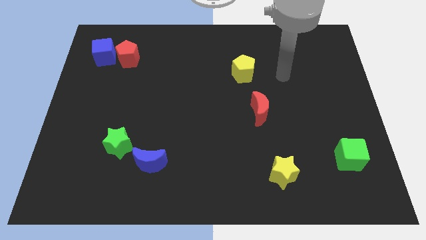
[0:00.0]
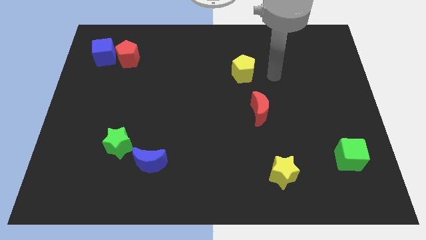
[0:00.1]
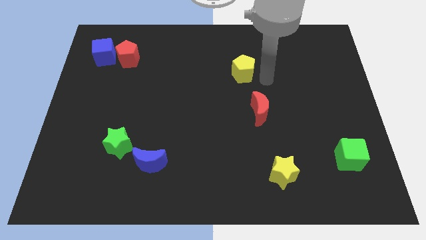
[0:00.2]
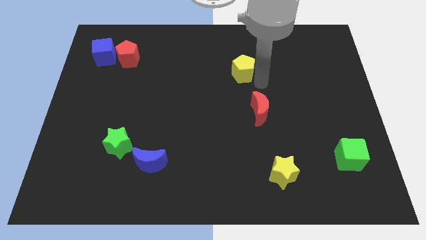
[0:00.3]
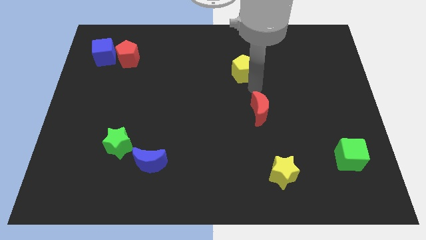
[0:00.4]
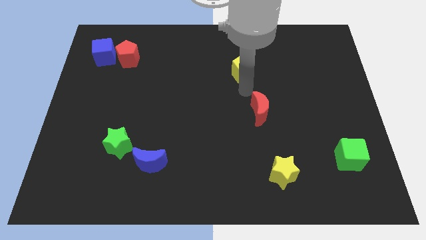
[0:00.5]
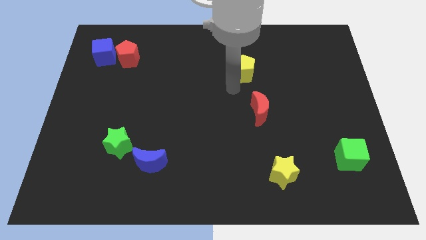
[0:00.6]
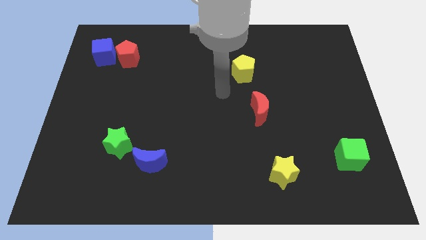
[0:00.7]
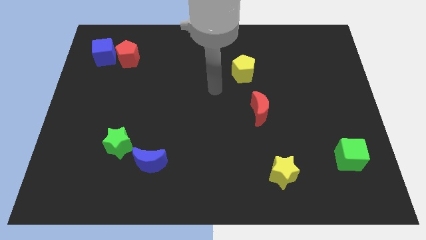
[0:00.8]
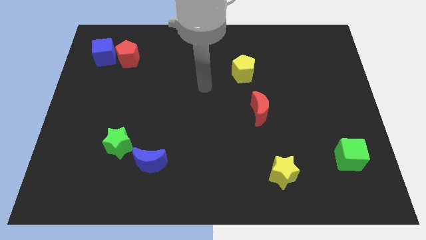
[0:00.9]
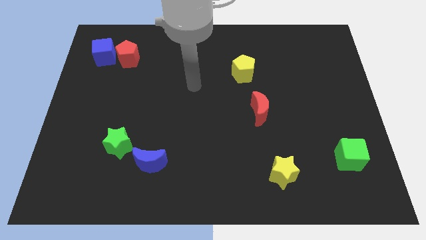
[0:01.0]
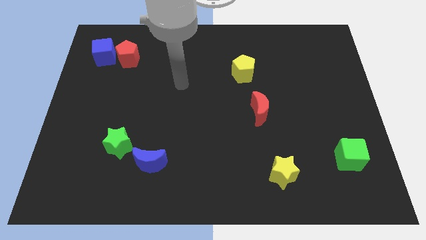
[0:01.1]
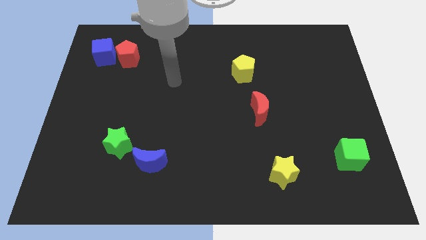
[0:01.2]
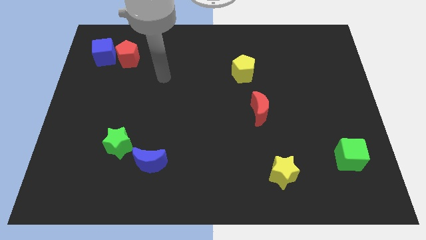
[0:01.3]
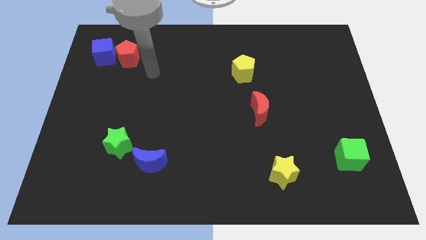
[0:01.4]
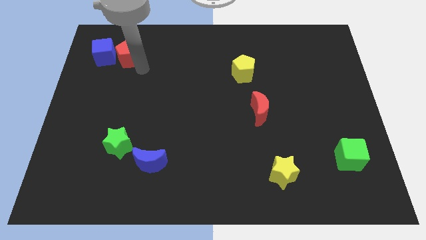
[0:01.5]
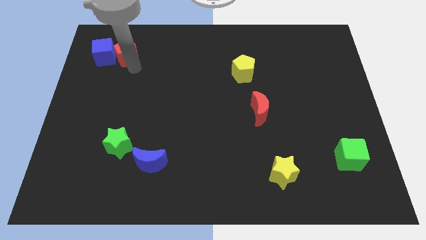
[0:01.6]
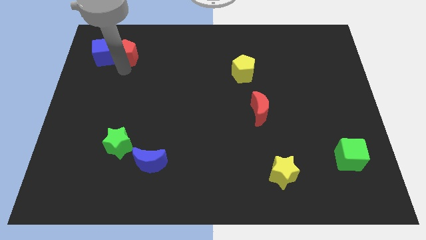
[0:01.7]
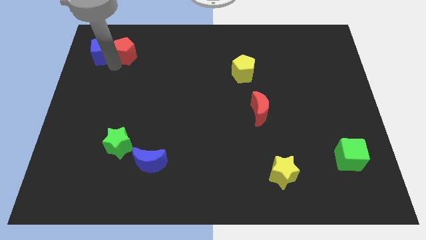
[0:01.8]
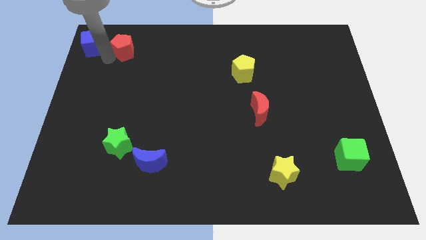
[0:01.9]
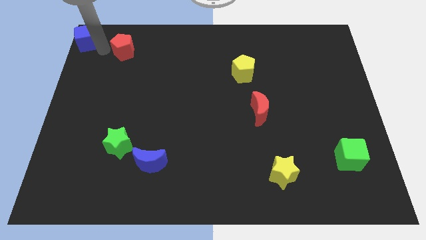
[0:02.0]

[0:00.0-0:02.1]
pull the red pentagon apart from the blue cube

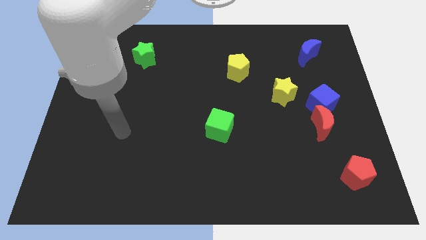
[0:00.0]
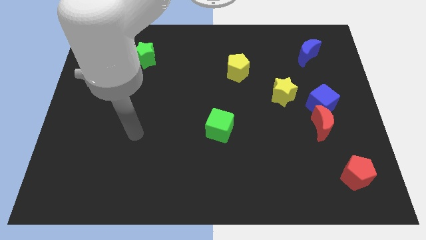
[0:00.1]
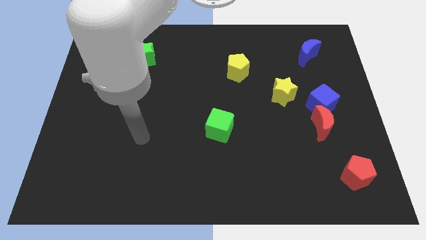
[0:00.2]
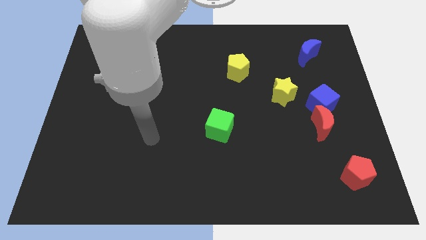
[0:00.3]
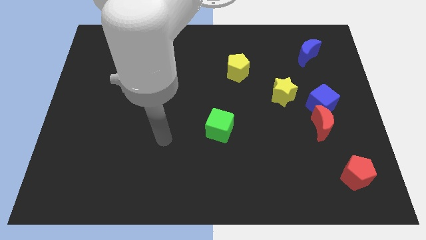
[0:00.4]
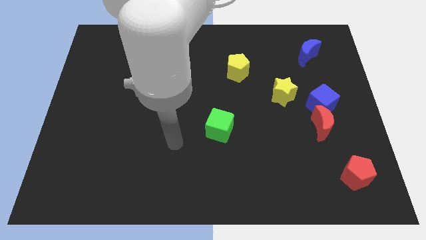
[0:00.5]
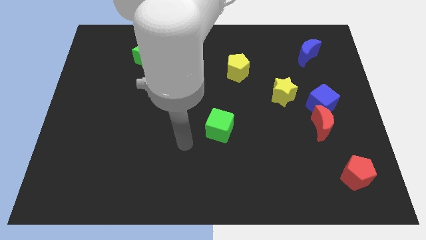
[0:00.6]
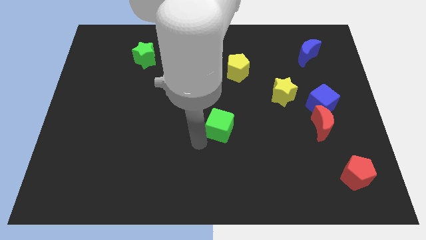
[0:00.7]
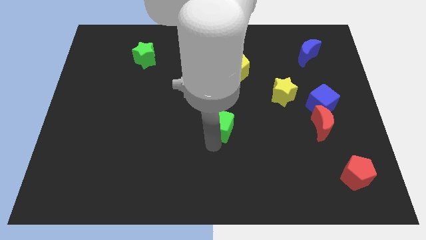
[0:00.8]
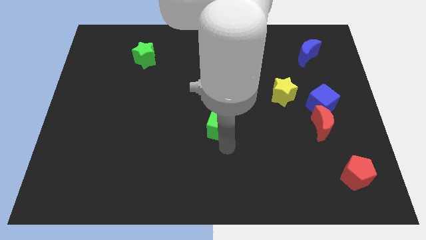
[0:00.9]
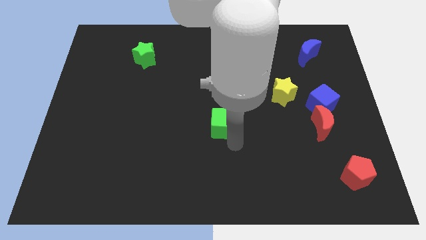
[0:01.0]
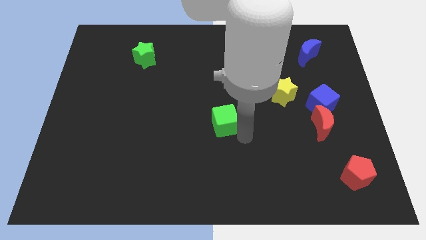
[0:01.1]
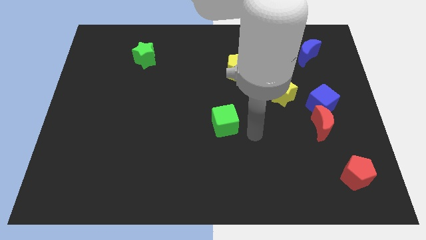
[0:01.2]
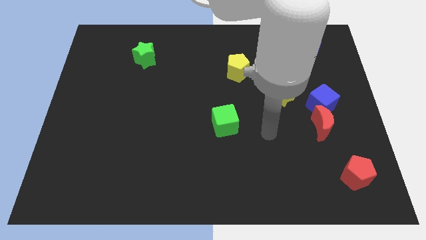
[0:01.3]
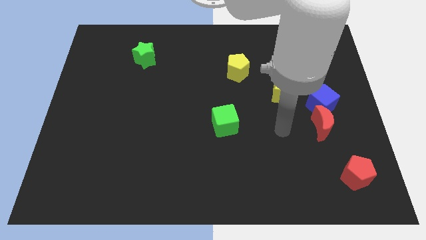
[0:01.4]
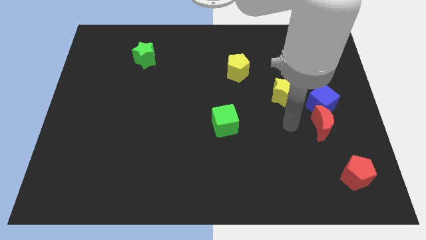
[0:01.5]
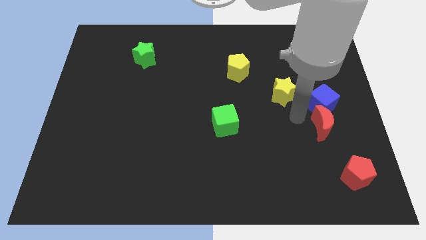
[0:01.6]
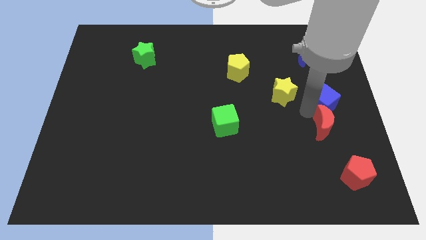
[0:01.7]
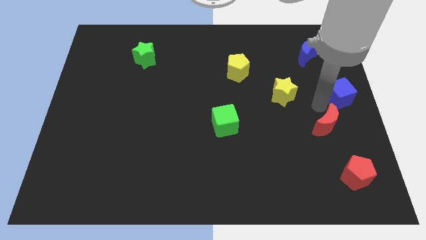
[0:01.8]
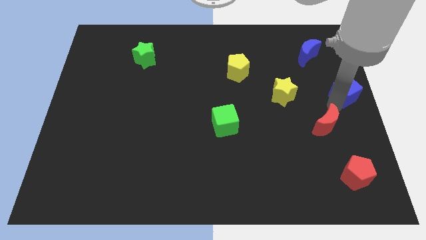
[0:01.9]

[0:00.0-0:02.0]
move the red moon away from the blue cube

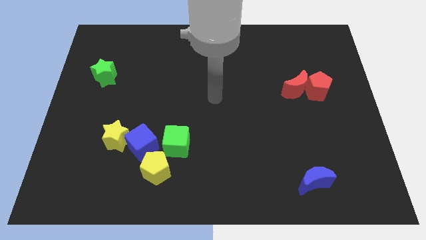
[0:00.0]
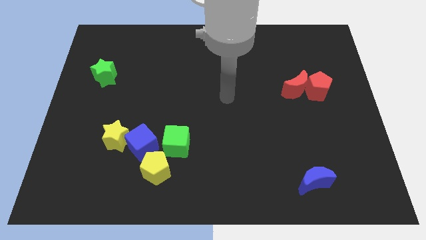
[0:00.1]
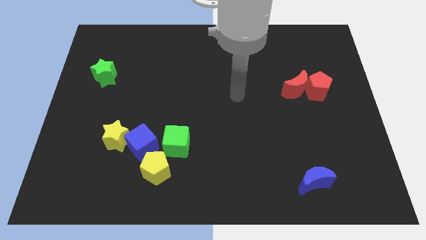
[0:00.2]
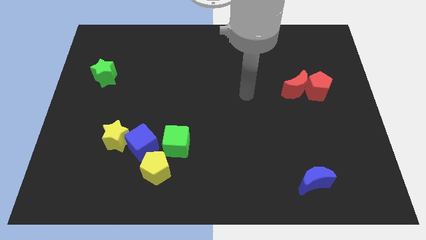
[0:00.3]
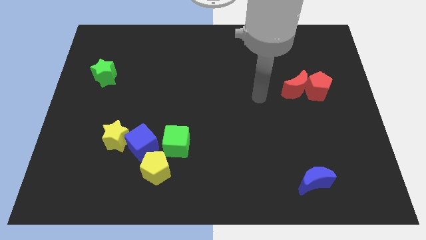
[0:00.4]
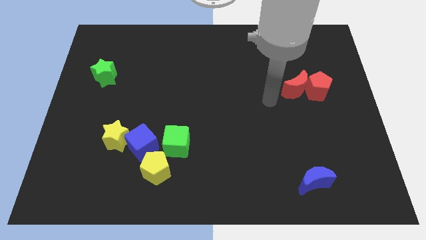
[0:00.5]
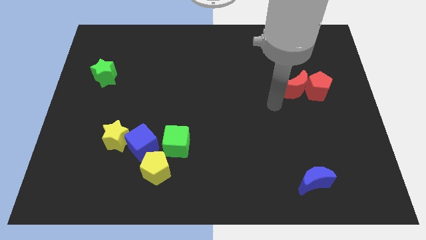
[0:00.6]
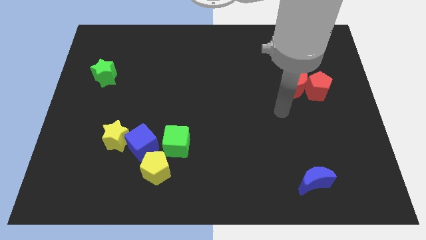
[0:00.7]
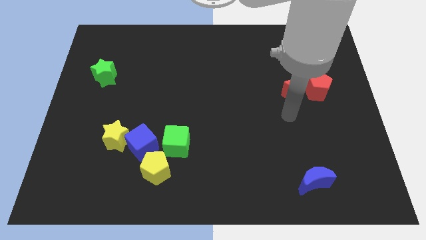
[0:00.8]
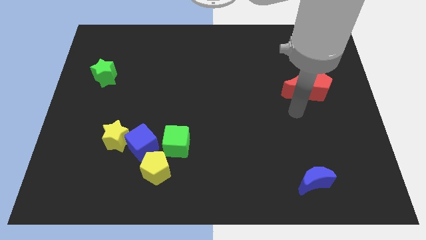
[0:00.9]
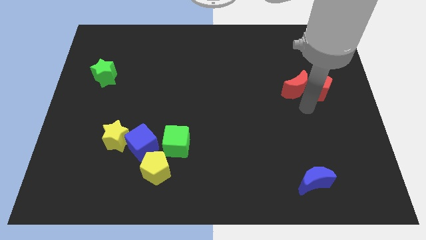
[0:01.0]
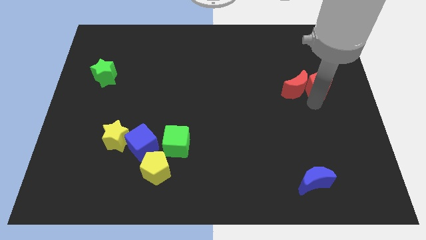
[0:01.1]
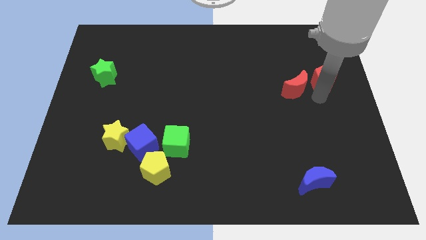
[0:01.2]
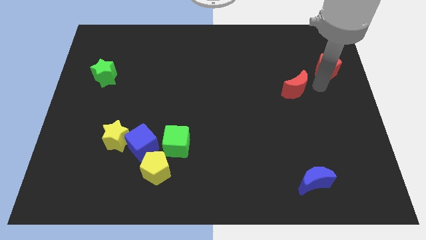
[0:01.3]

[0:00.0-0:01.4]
separate the red moon from the red pentagon

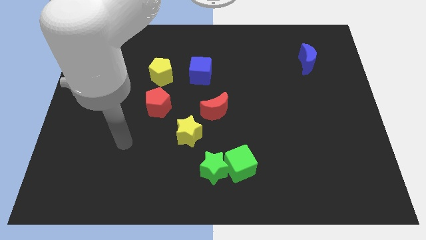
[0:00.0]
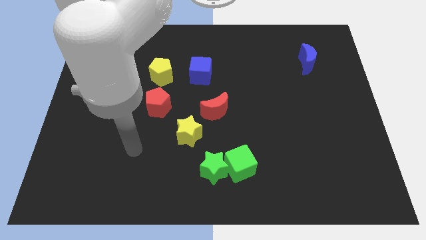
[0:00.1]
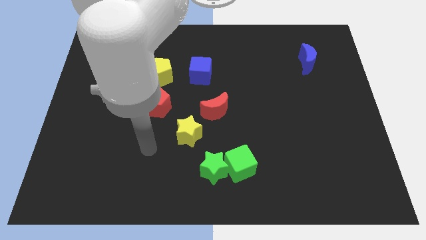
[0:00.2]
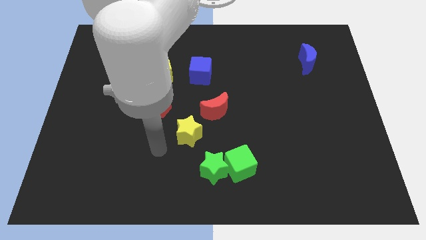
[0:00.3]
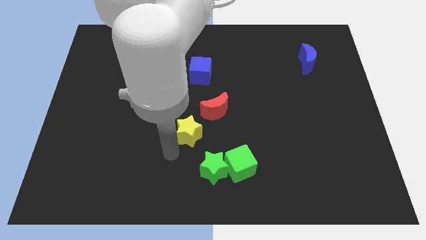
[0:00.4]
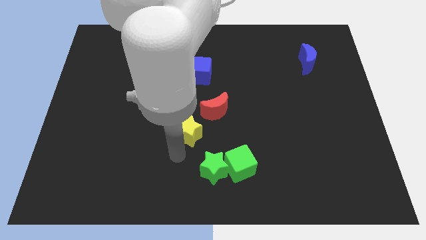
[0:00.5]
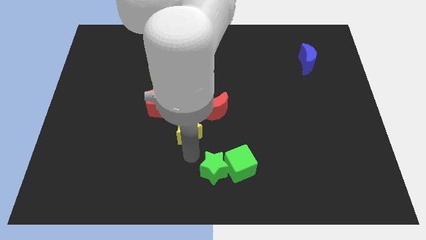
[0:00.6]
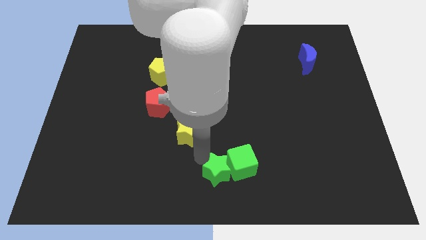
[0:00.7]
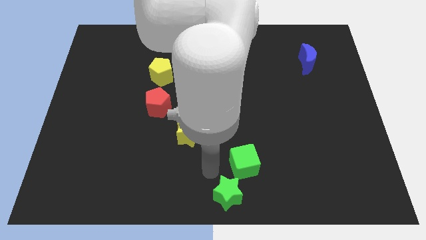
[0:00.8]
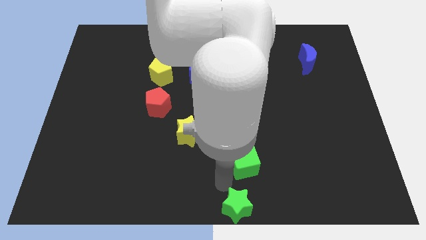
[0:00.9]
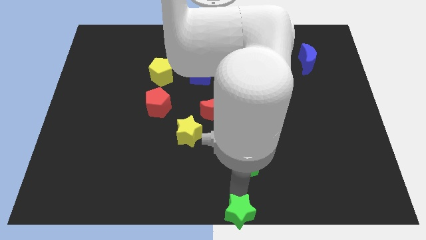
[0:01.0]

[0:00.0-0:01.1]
separate the green cube from the green star

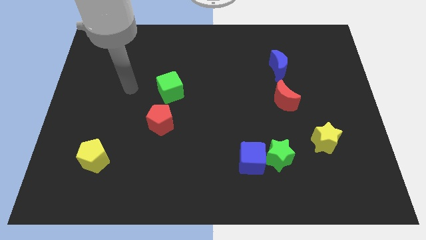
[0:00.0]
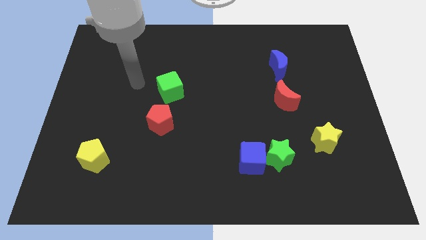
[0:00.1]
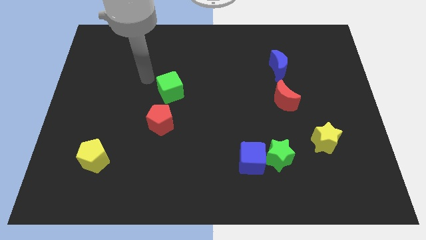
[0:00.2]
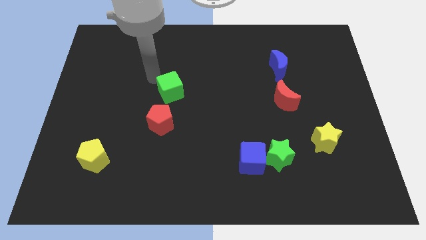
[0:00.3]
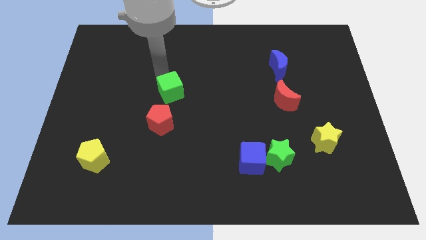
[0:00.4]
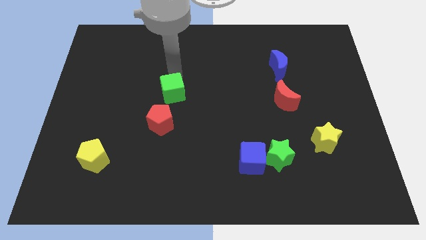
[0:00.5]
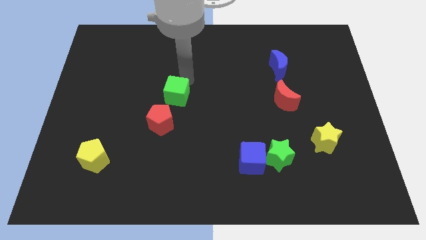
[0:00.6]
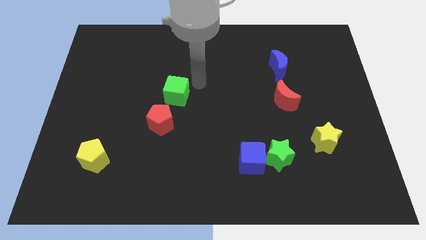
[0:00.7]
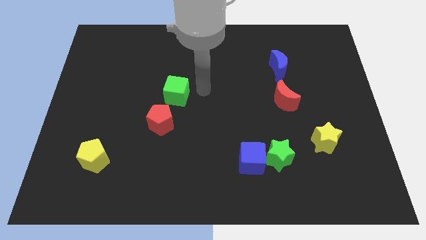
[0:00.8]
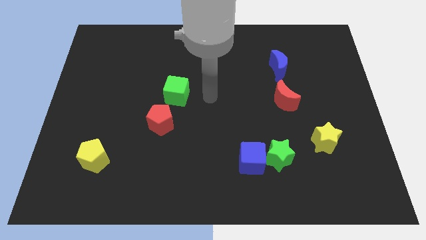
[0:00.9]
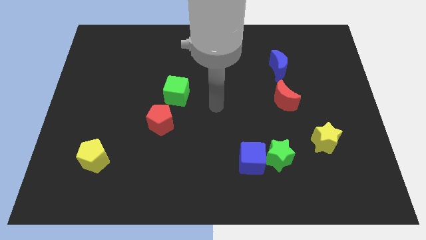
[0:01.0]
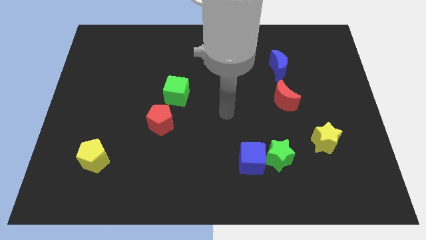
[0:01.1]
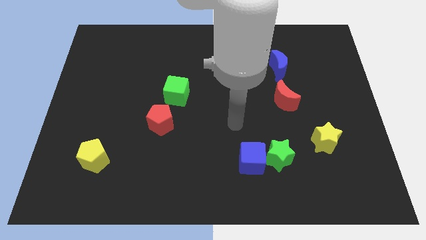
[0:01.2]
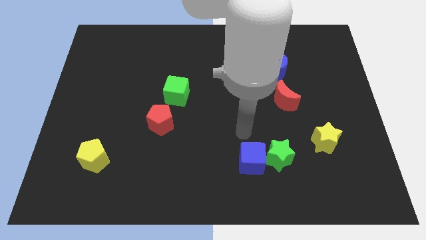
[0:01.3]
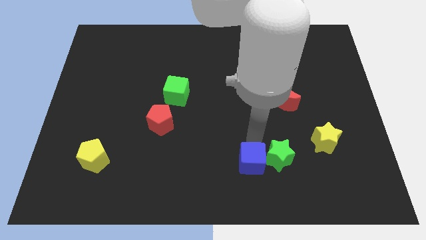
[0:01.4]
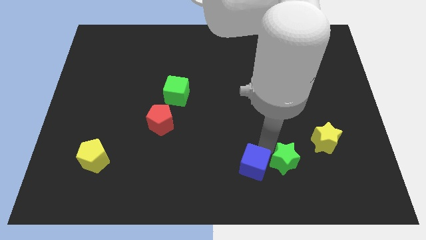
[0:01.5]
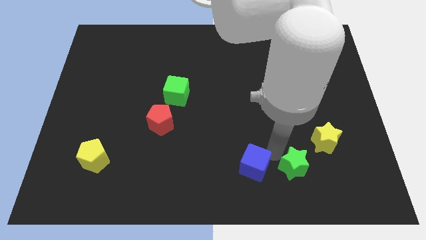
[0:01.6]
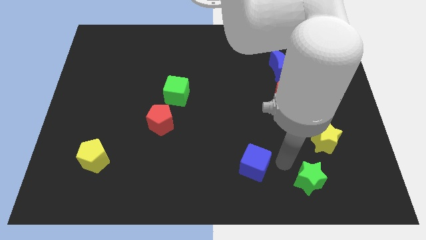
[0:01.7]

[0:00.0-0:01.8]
separate the blue cube from the green star

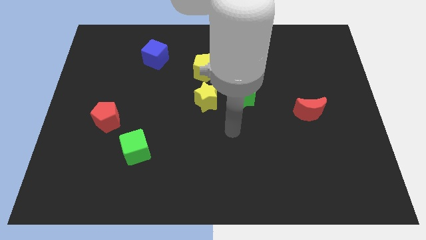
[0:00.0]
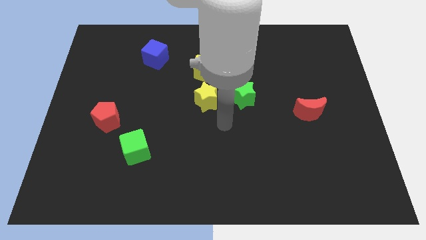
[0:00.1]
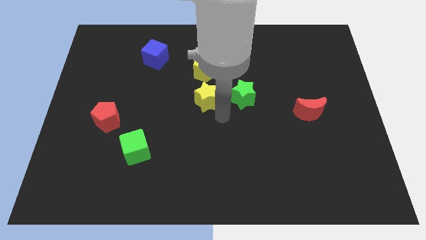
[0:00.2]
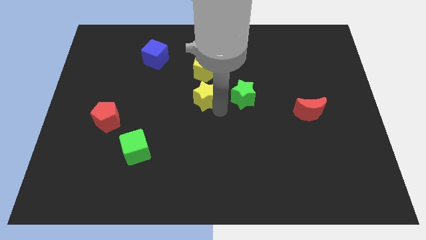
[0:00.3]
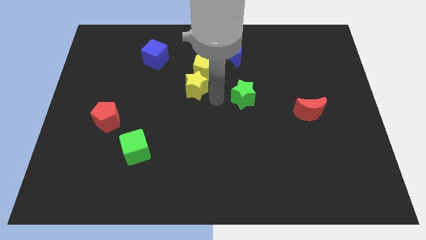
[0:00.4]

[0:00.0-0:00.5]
pull the green star apart from the yellow star

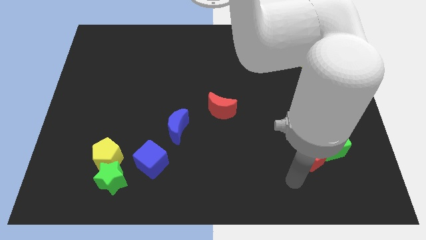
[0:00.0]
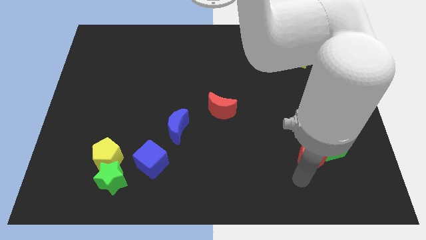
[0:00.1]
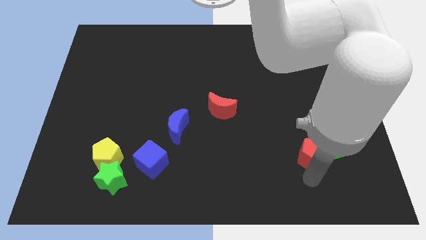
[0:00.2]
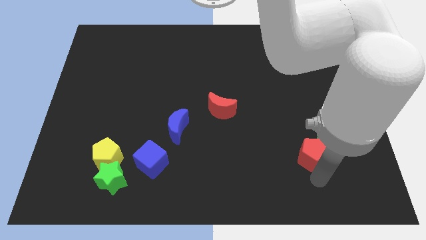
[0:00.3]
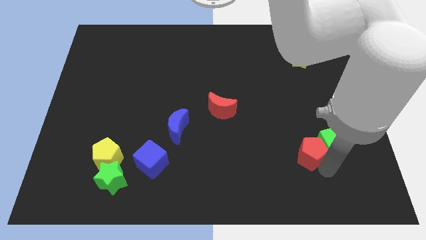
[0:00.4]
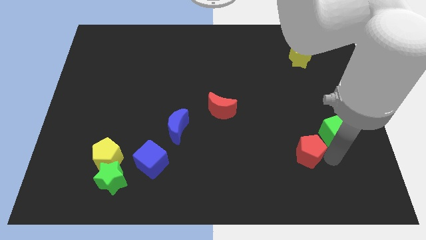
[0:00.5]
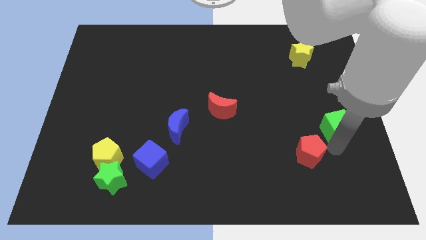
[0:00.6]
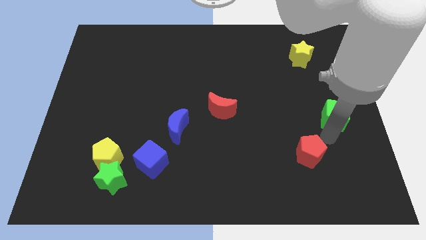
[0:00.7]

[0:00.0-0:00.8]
move the red pentagon away from the green cube
